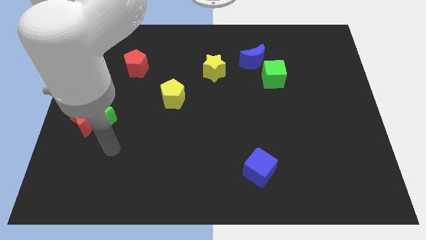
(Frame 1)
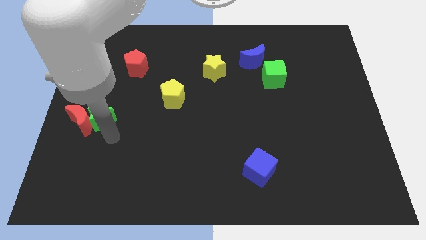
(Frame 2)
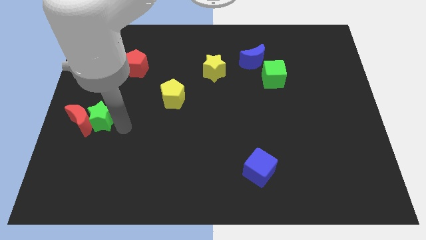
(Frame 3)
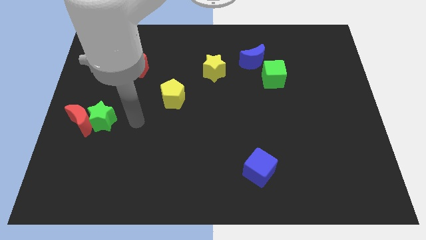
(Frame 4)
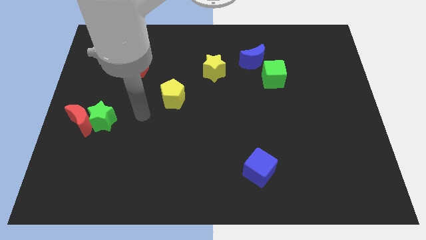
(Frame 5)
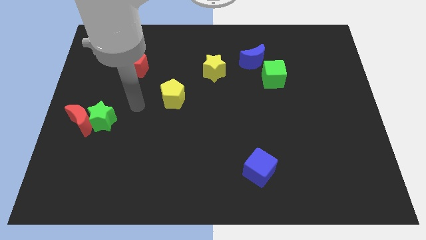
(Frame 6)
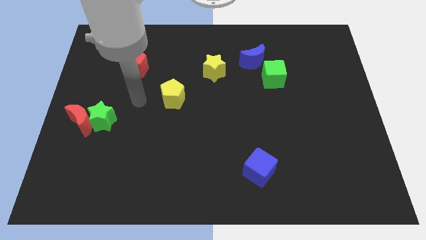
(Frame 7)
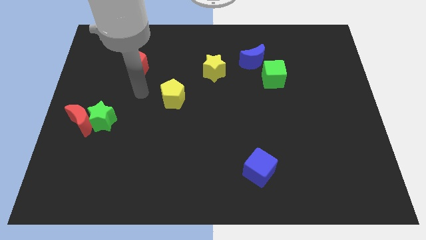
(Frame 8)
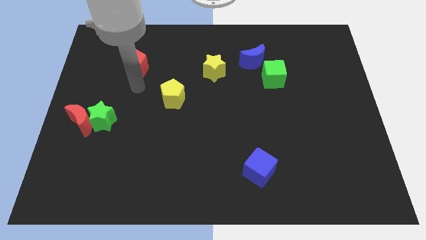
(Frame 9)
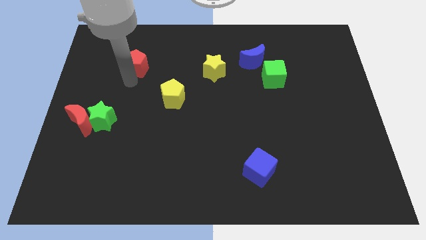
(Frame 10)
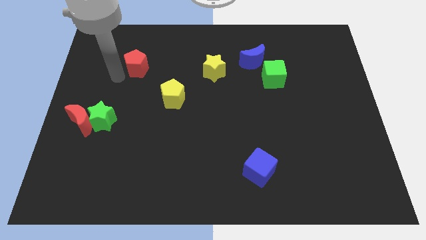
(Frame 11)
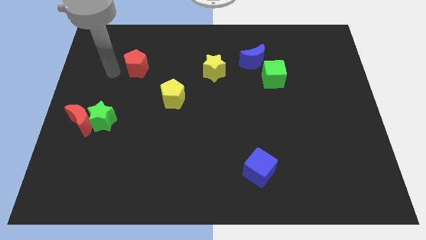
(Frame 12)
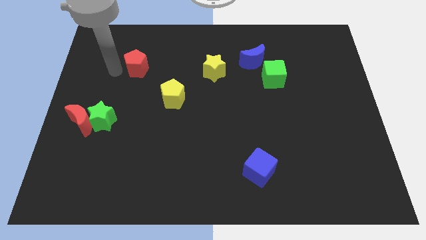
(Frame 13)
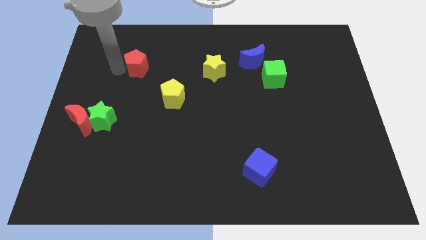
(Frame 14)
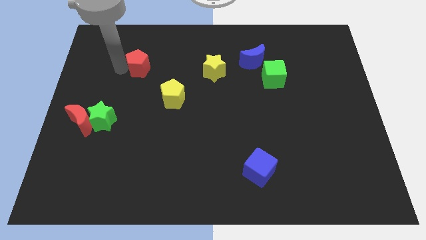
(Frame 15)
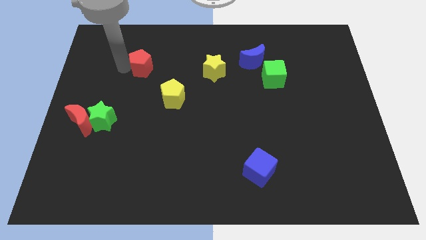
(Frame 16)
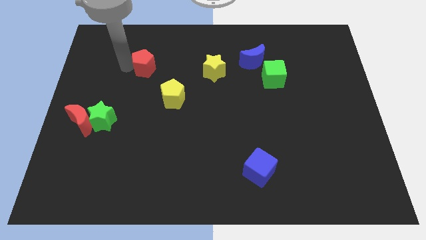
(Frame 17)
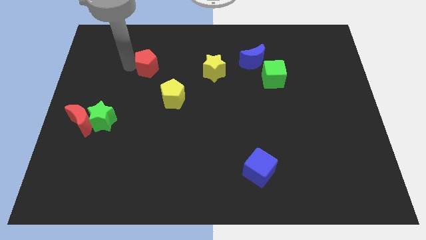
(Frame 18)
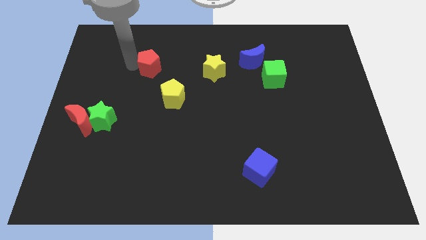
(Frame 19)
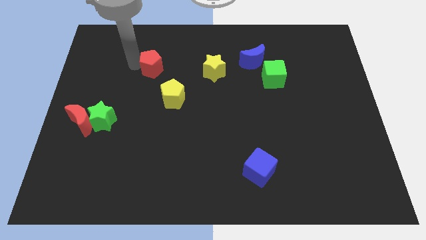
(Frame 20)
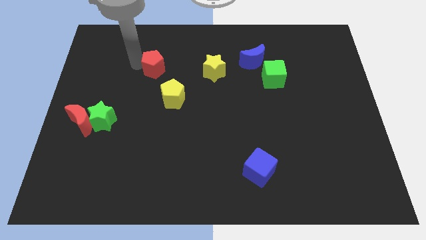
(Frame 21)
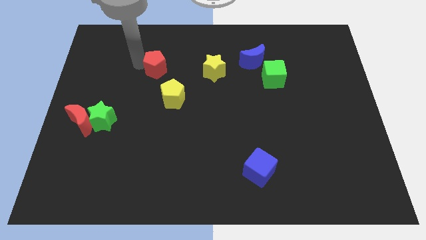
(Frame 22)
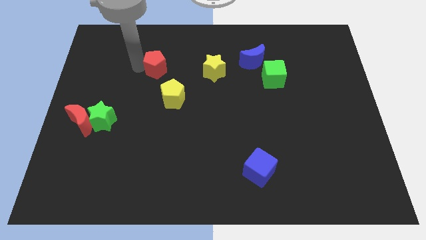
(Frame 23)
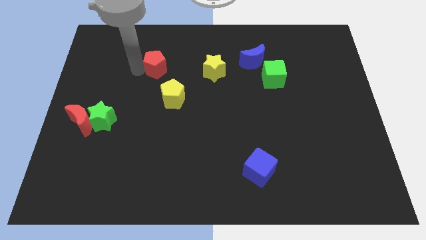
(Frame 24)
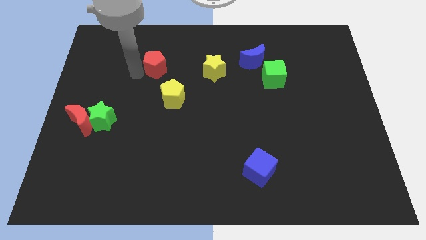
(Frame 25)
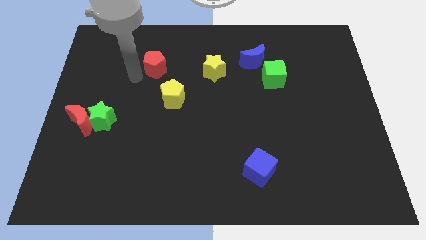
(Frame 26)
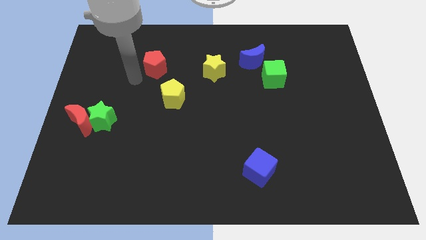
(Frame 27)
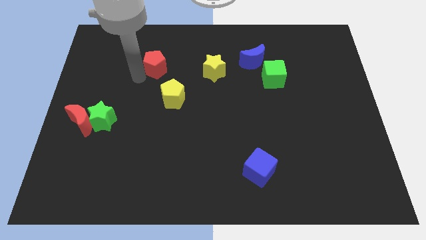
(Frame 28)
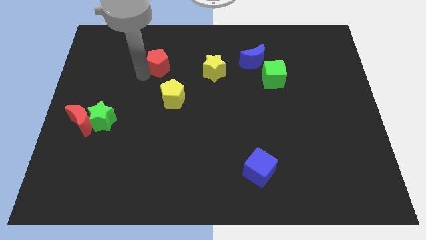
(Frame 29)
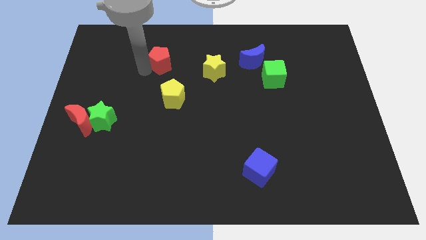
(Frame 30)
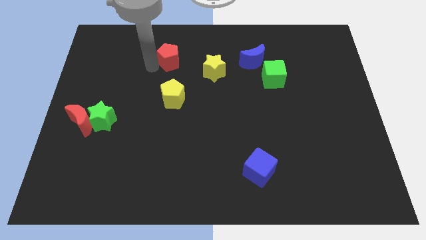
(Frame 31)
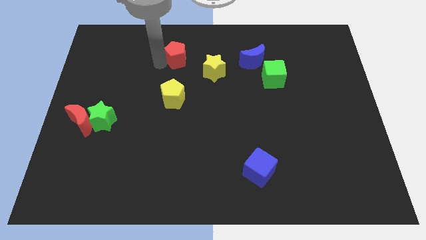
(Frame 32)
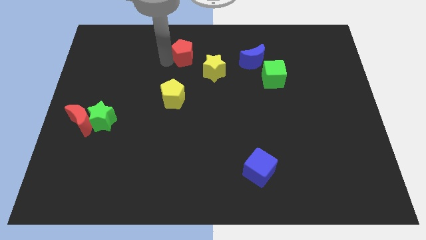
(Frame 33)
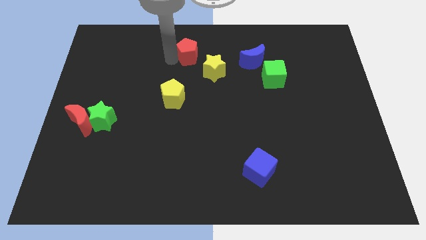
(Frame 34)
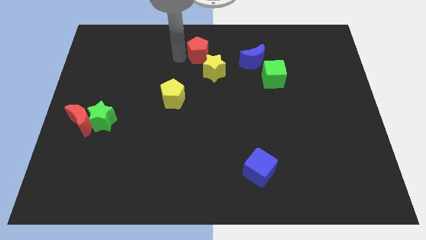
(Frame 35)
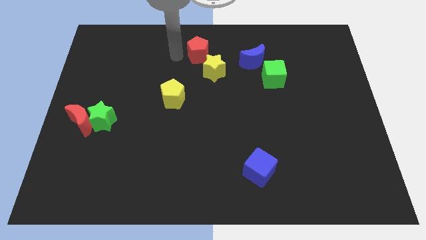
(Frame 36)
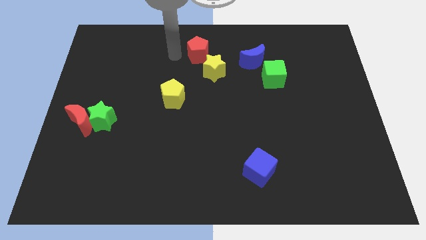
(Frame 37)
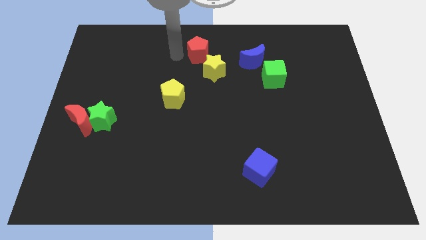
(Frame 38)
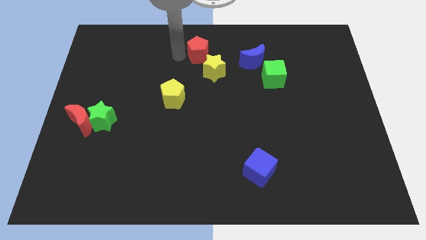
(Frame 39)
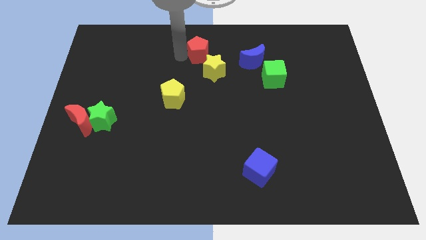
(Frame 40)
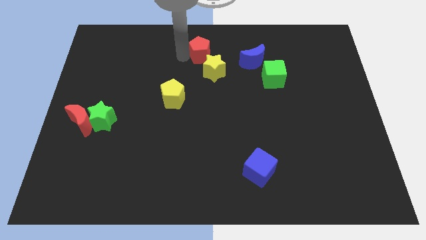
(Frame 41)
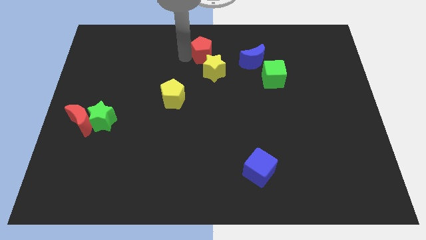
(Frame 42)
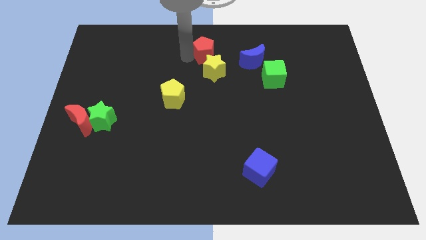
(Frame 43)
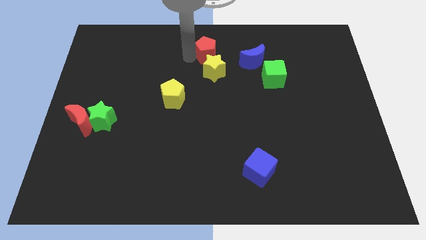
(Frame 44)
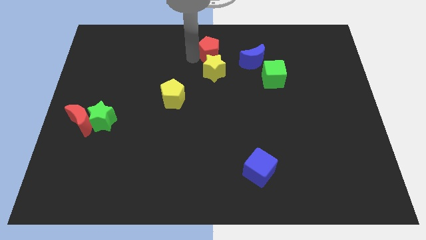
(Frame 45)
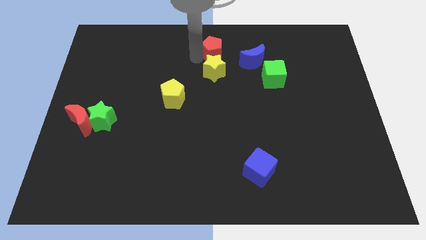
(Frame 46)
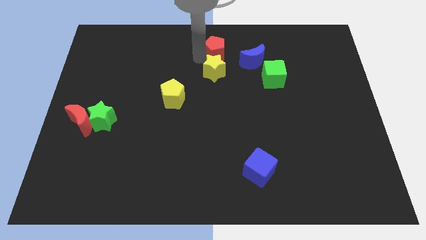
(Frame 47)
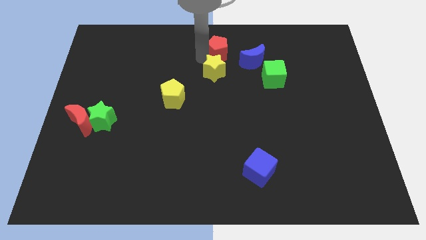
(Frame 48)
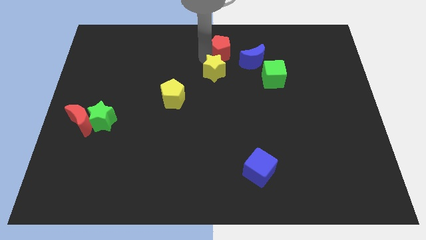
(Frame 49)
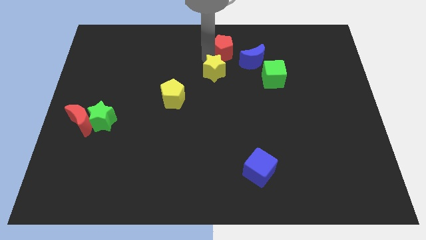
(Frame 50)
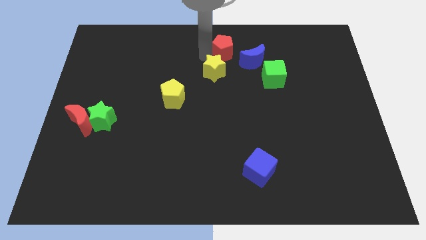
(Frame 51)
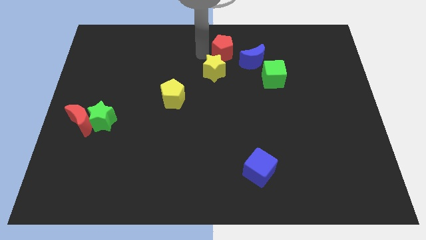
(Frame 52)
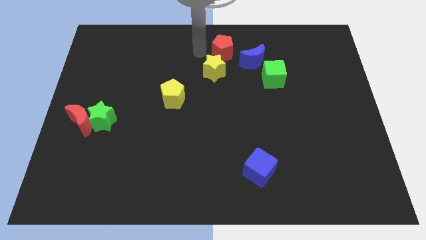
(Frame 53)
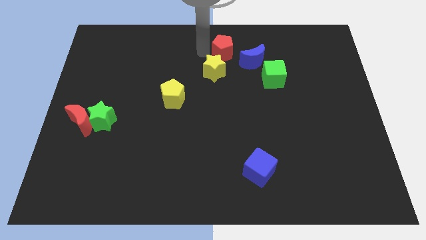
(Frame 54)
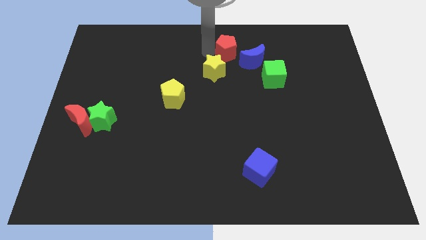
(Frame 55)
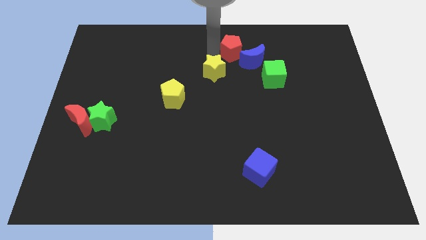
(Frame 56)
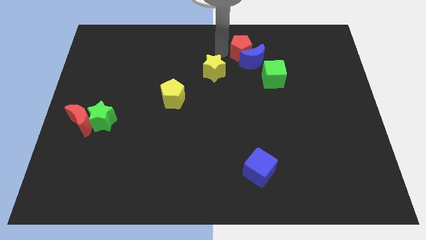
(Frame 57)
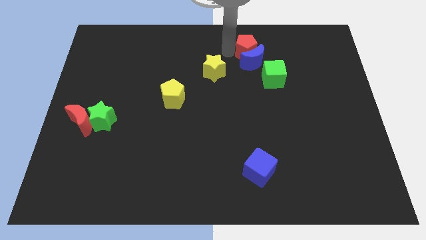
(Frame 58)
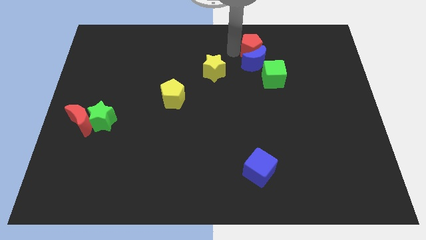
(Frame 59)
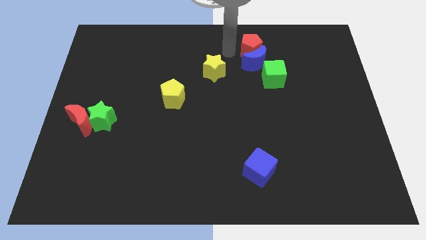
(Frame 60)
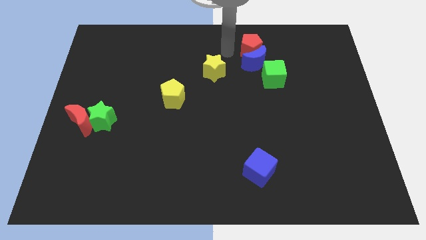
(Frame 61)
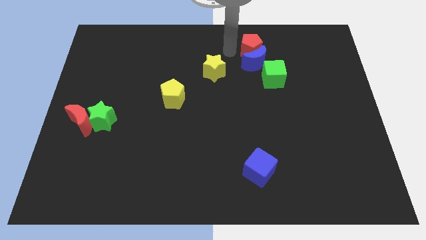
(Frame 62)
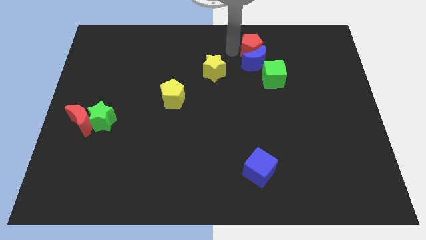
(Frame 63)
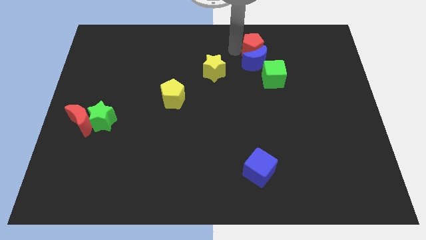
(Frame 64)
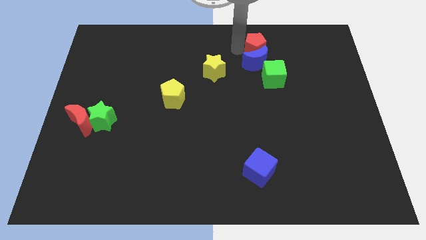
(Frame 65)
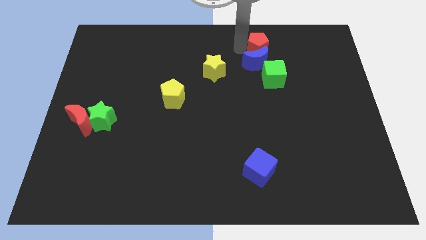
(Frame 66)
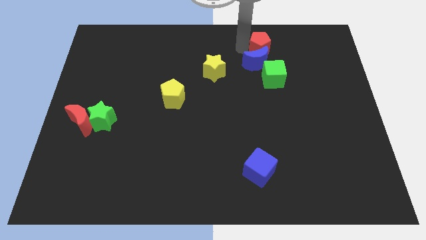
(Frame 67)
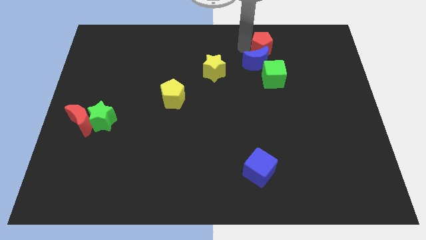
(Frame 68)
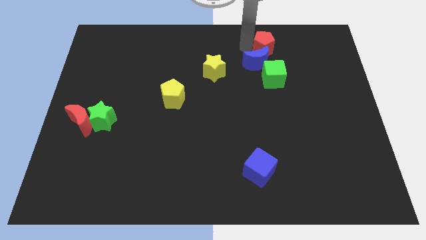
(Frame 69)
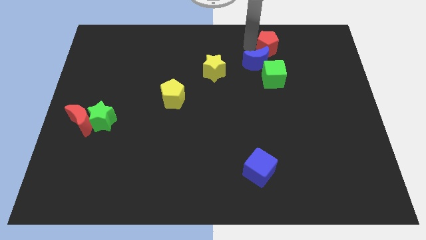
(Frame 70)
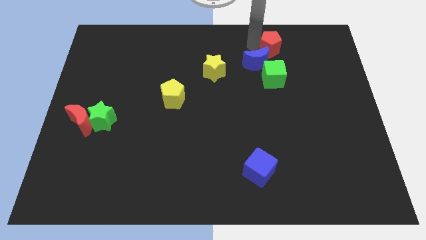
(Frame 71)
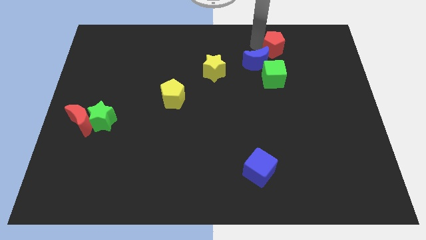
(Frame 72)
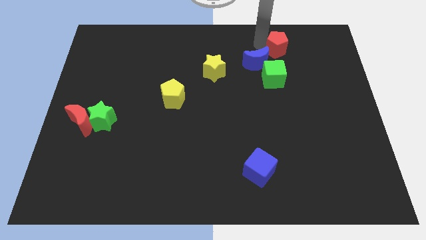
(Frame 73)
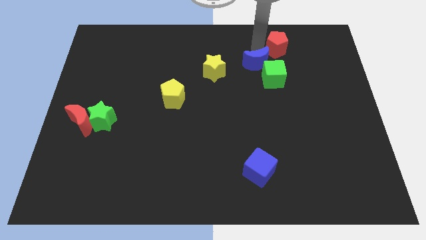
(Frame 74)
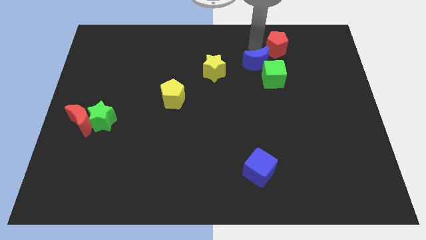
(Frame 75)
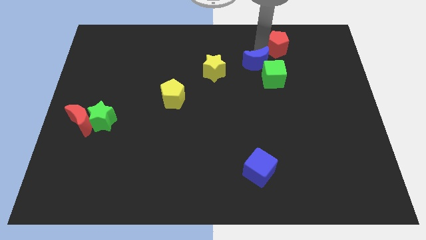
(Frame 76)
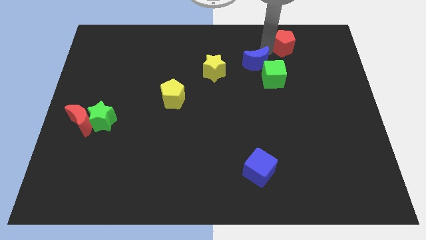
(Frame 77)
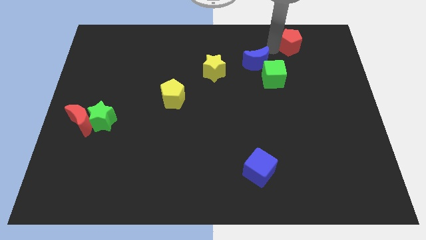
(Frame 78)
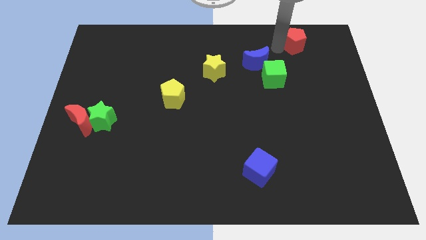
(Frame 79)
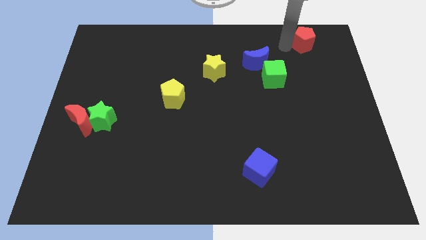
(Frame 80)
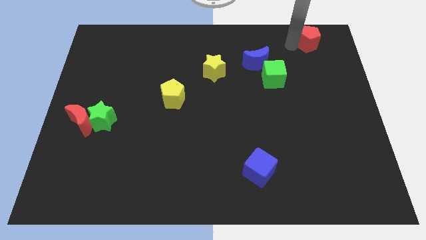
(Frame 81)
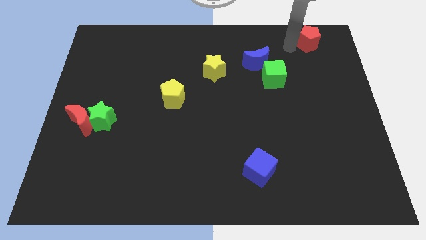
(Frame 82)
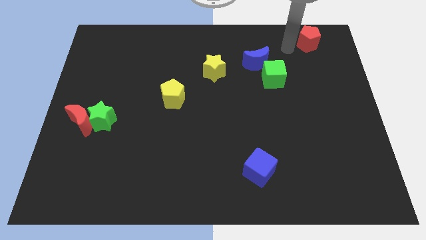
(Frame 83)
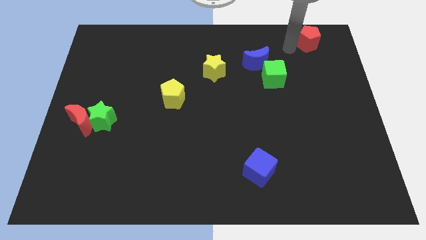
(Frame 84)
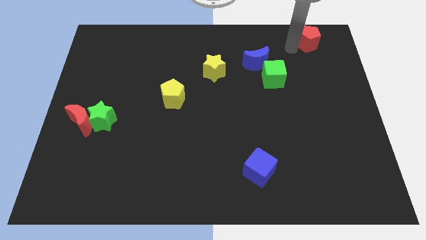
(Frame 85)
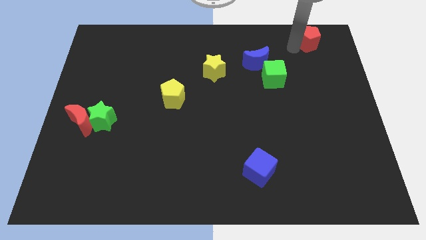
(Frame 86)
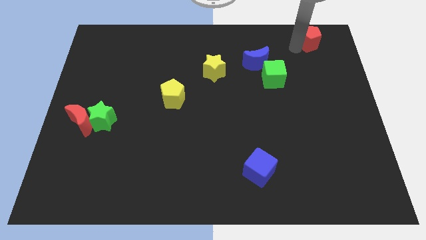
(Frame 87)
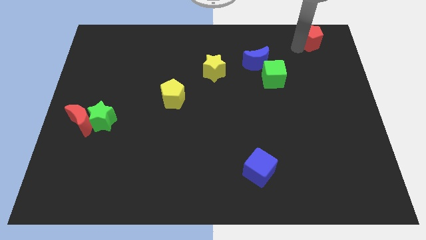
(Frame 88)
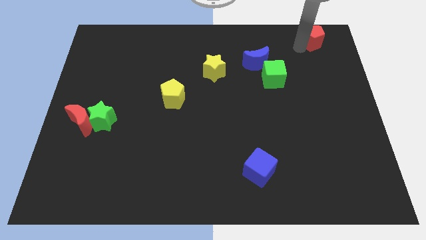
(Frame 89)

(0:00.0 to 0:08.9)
put the red pentagon to the upper right corner
